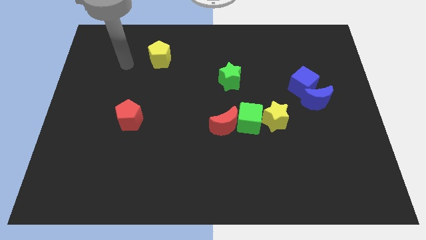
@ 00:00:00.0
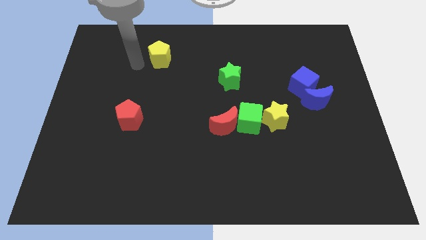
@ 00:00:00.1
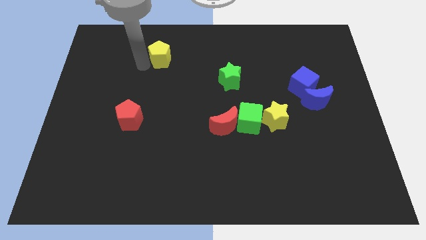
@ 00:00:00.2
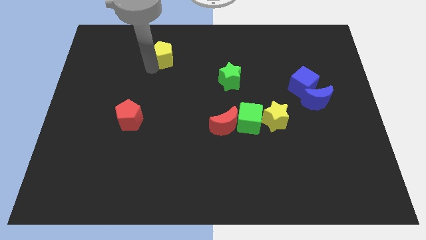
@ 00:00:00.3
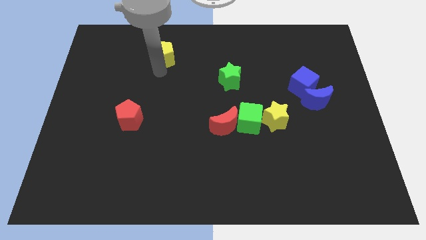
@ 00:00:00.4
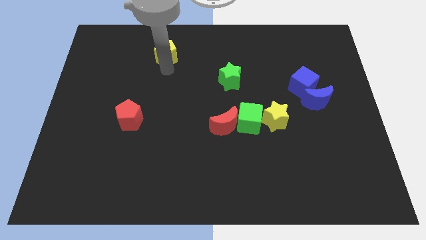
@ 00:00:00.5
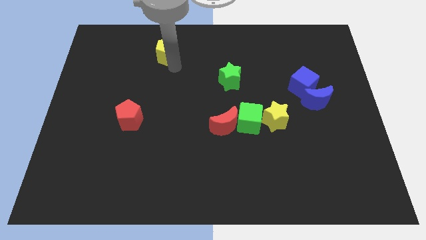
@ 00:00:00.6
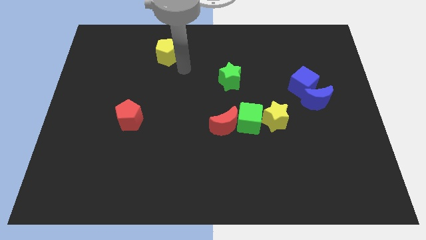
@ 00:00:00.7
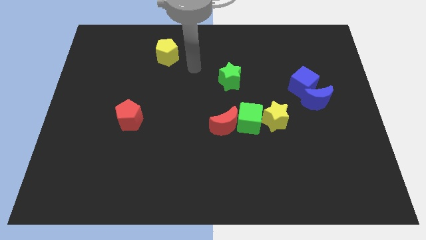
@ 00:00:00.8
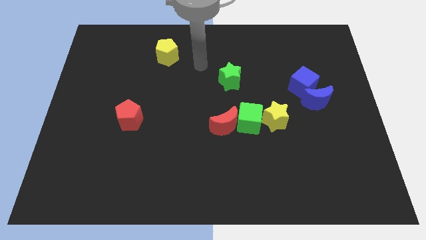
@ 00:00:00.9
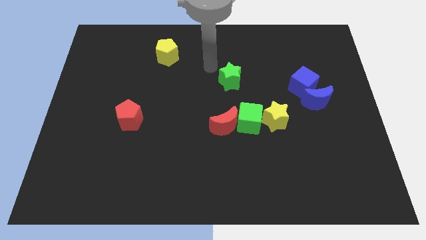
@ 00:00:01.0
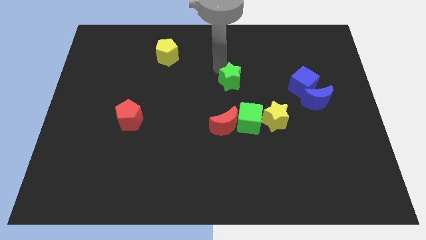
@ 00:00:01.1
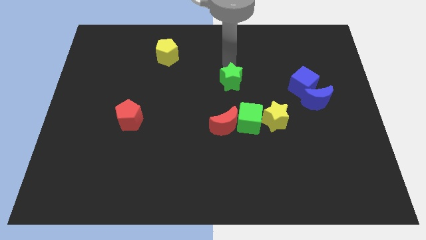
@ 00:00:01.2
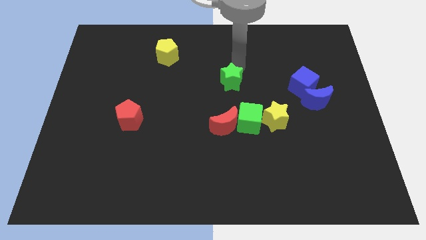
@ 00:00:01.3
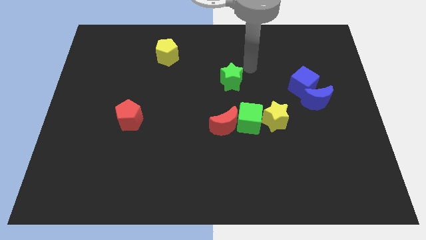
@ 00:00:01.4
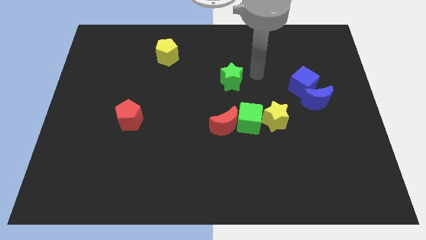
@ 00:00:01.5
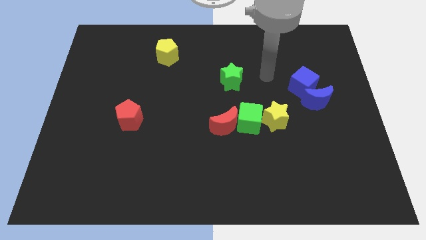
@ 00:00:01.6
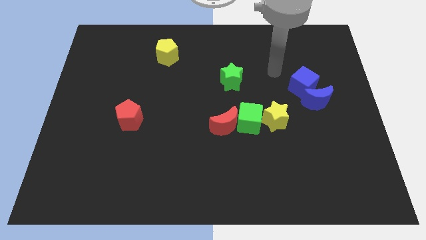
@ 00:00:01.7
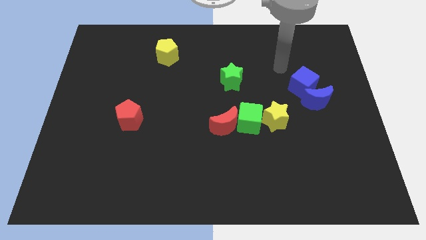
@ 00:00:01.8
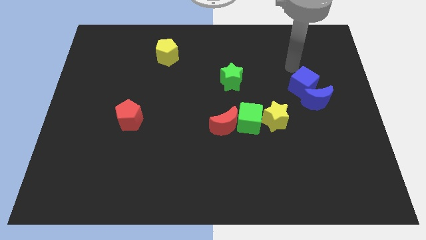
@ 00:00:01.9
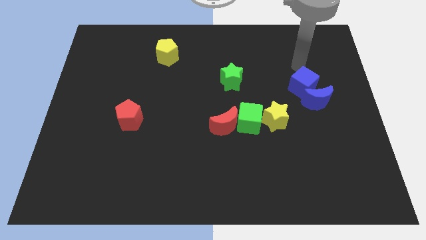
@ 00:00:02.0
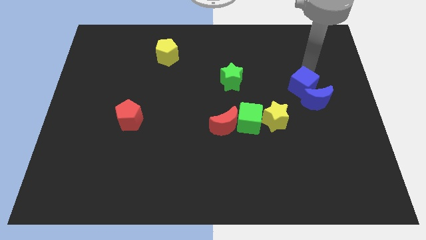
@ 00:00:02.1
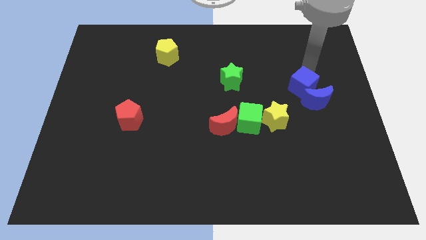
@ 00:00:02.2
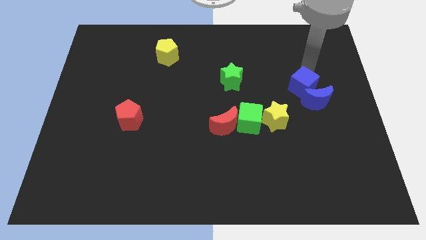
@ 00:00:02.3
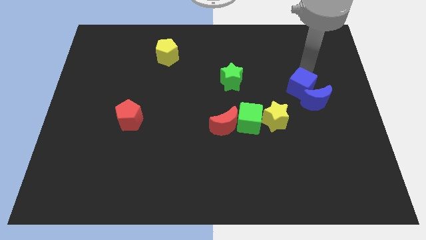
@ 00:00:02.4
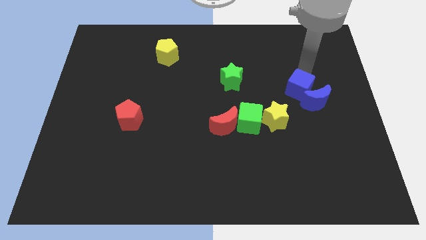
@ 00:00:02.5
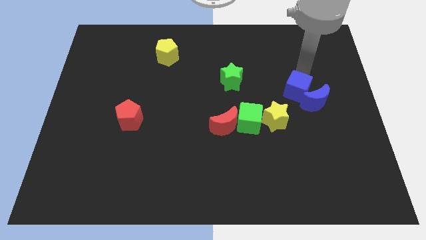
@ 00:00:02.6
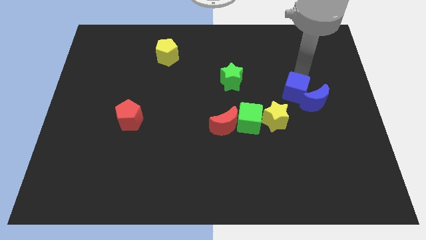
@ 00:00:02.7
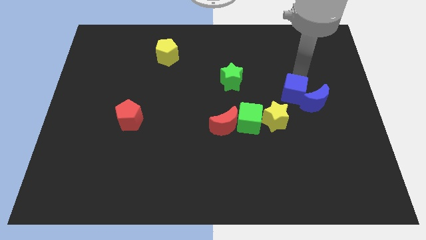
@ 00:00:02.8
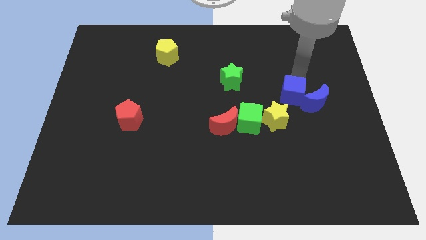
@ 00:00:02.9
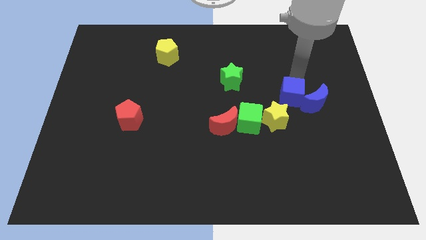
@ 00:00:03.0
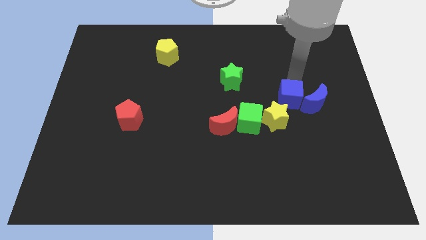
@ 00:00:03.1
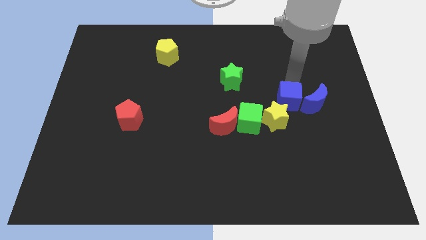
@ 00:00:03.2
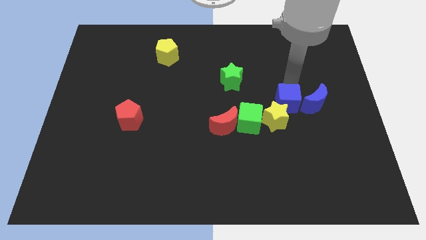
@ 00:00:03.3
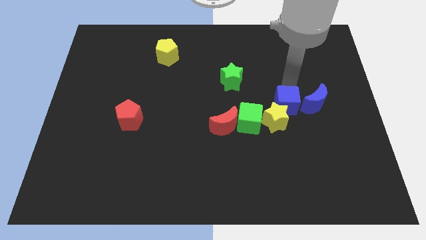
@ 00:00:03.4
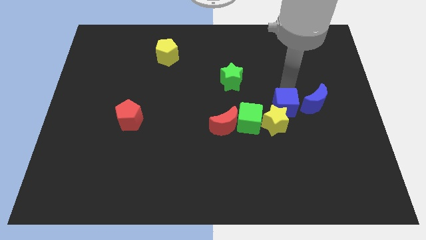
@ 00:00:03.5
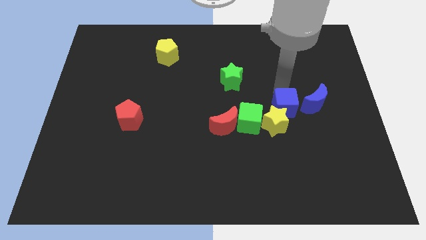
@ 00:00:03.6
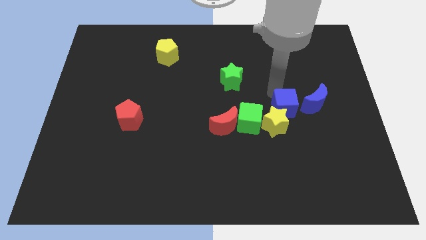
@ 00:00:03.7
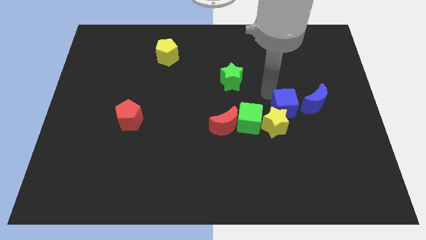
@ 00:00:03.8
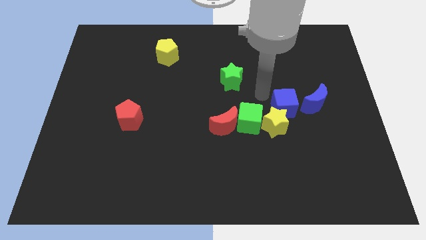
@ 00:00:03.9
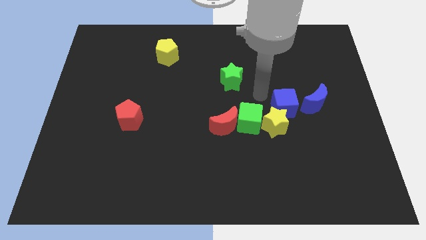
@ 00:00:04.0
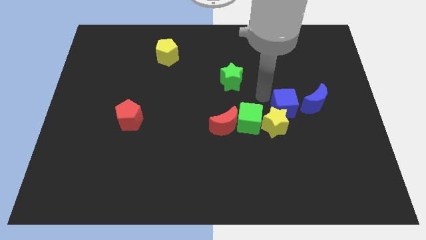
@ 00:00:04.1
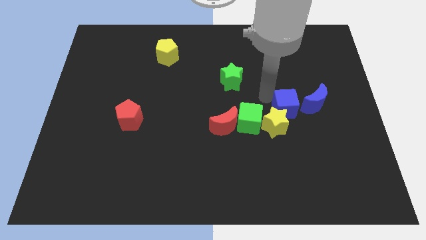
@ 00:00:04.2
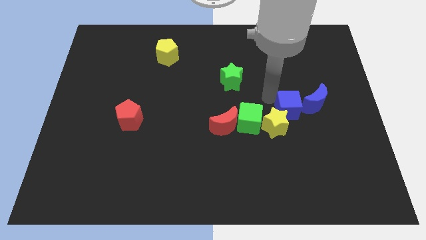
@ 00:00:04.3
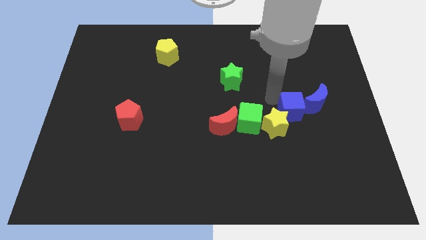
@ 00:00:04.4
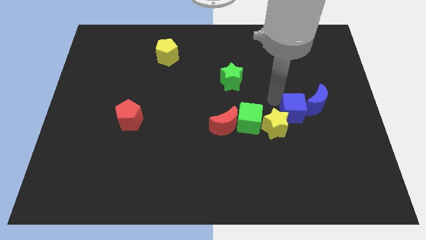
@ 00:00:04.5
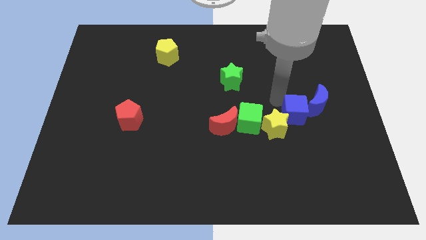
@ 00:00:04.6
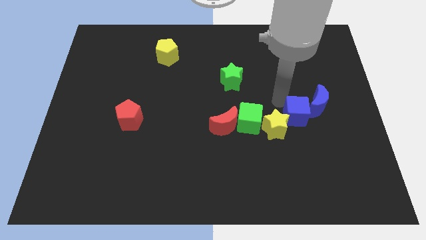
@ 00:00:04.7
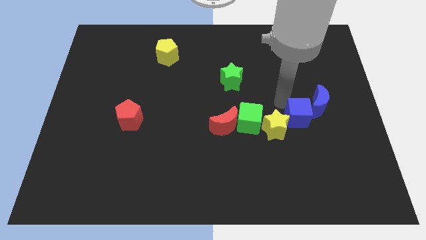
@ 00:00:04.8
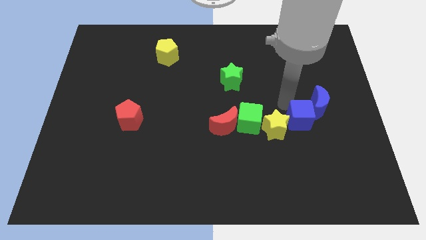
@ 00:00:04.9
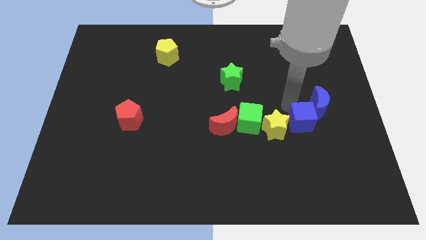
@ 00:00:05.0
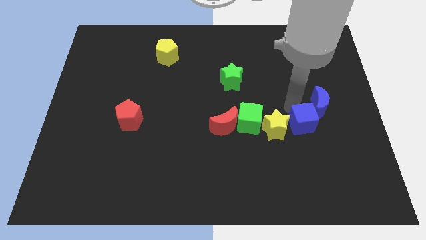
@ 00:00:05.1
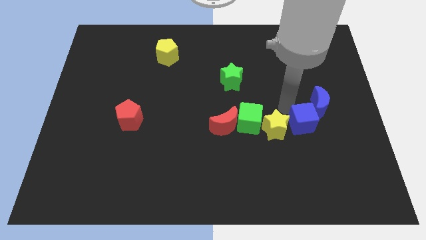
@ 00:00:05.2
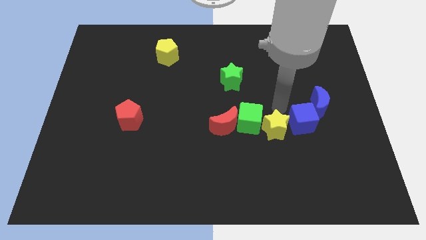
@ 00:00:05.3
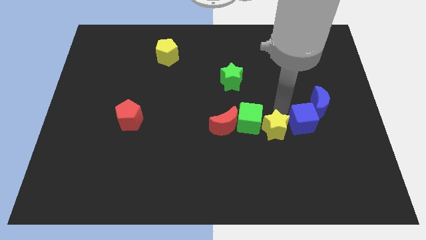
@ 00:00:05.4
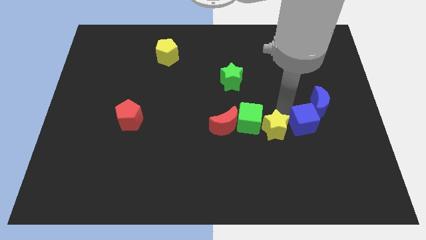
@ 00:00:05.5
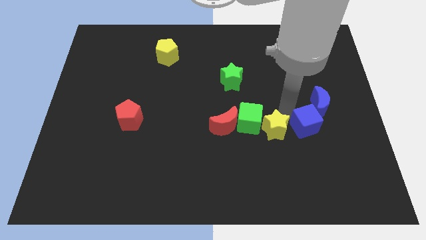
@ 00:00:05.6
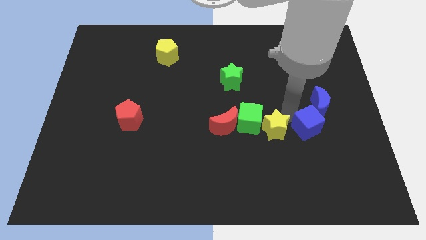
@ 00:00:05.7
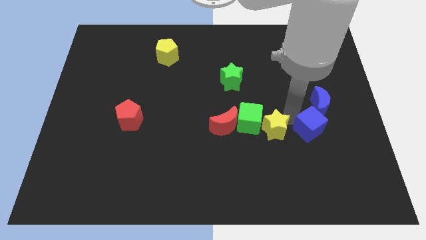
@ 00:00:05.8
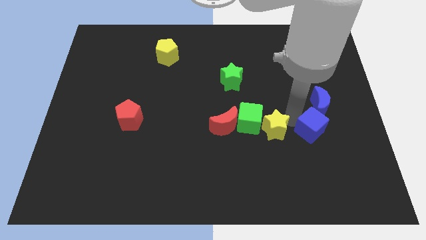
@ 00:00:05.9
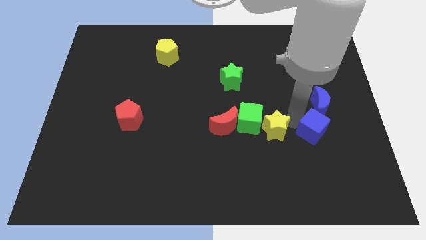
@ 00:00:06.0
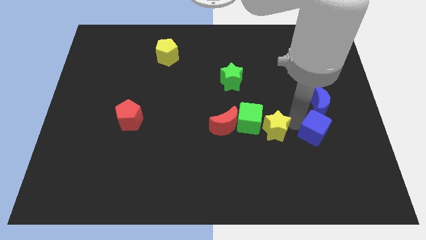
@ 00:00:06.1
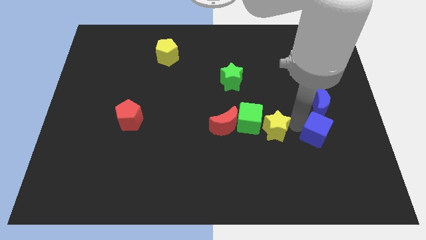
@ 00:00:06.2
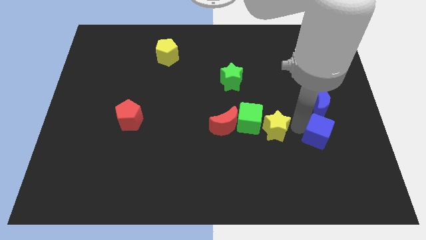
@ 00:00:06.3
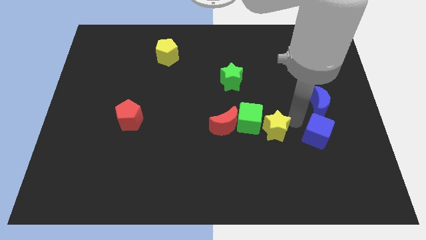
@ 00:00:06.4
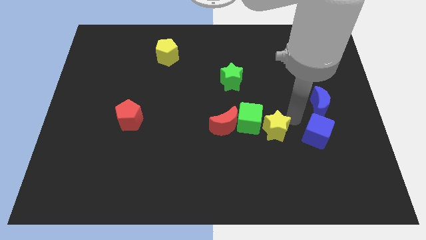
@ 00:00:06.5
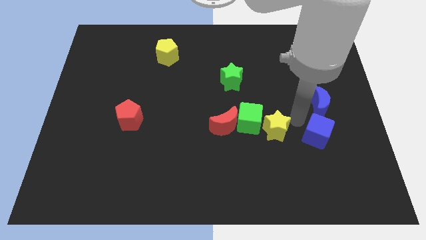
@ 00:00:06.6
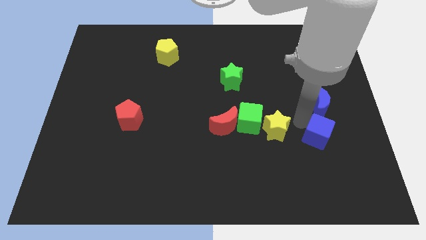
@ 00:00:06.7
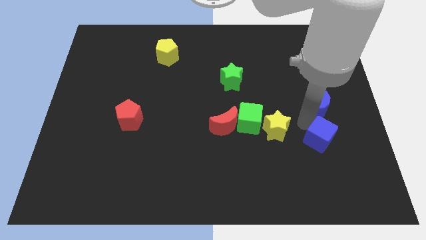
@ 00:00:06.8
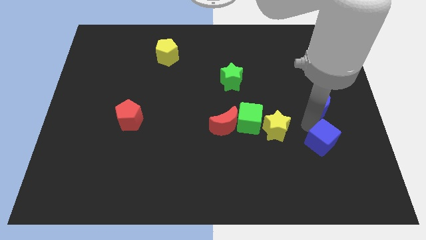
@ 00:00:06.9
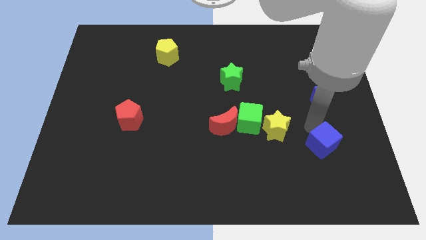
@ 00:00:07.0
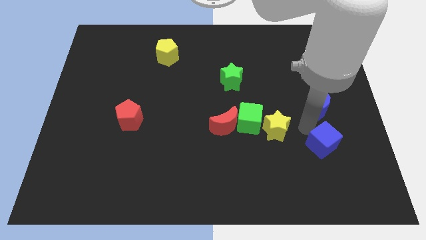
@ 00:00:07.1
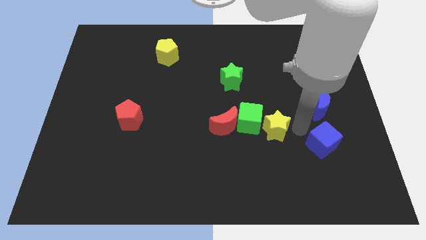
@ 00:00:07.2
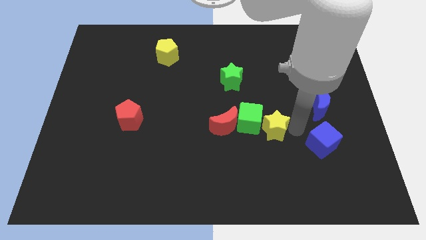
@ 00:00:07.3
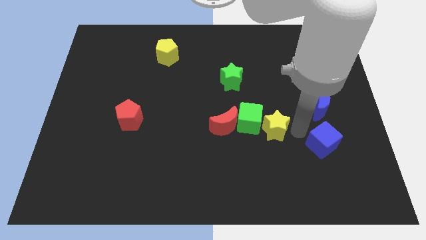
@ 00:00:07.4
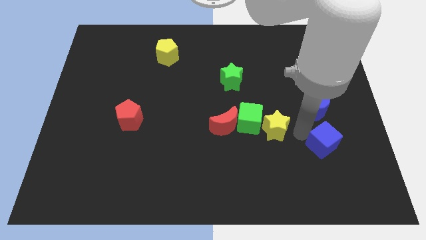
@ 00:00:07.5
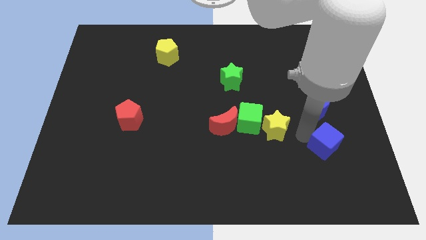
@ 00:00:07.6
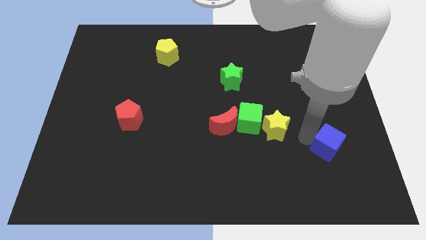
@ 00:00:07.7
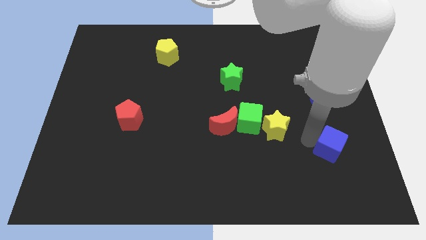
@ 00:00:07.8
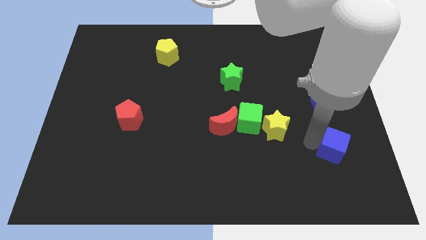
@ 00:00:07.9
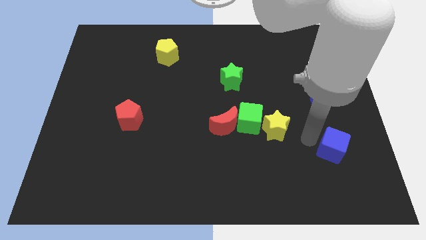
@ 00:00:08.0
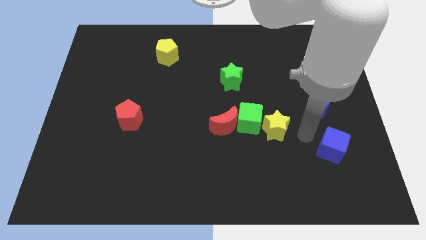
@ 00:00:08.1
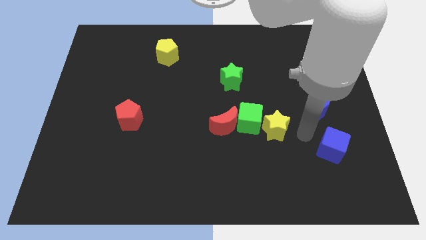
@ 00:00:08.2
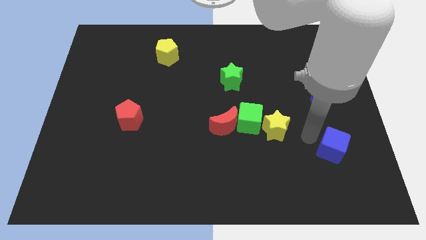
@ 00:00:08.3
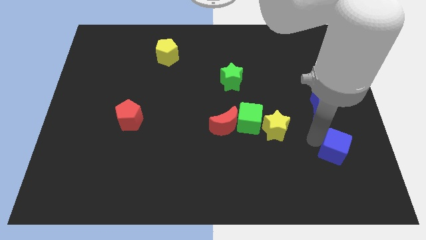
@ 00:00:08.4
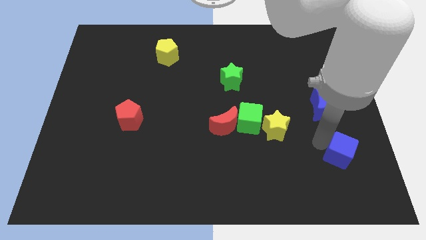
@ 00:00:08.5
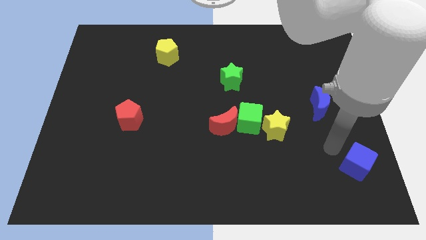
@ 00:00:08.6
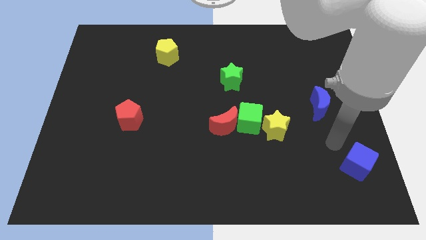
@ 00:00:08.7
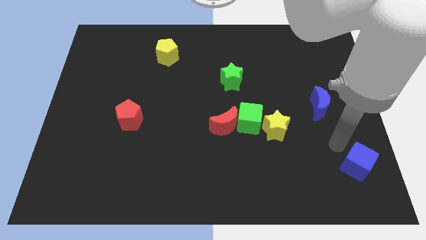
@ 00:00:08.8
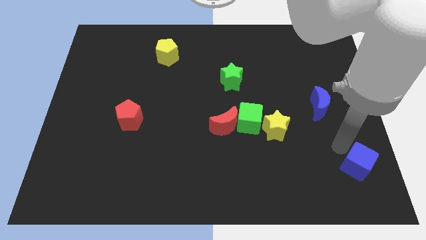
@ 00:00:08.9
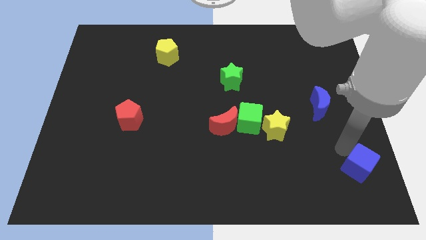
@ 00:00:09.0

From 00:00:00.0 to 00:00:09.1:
slide the blue cube to the bottom right of the board
